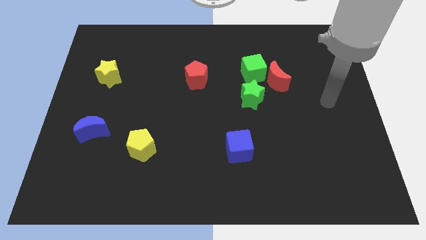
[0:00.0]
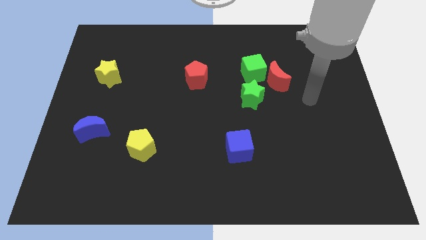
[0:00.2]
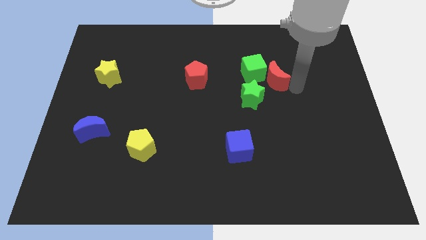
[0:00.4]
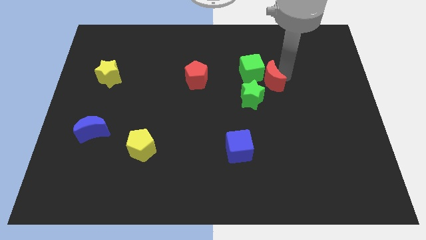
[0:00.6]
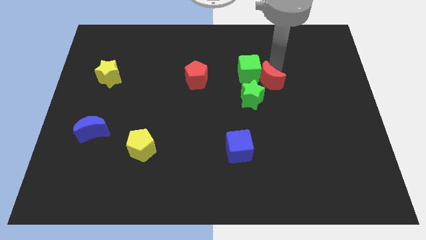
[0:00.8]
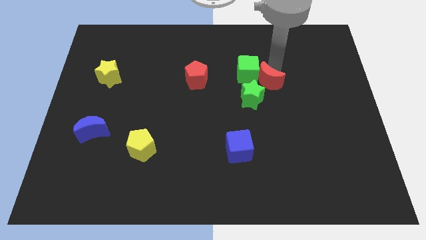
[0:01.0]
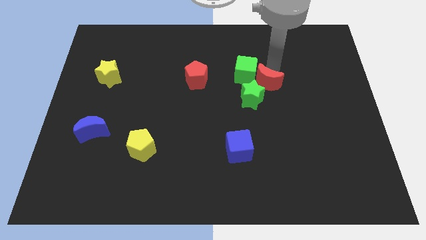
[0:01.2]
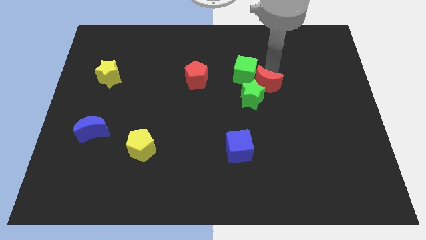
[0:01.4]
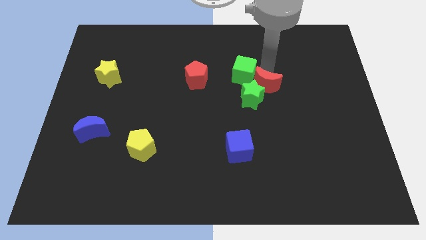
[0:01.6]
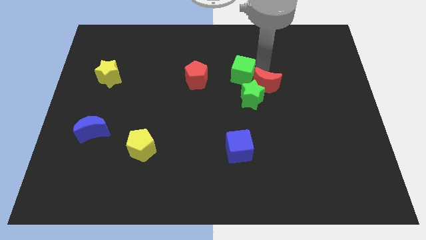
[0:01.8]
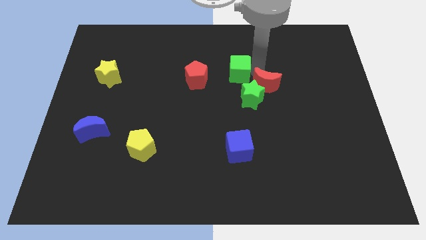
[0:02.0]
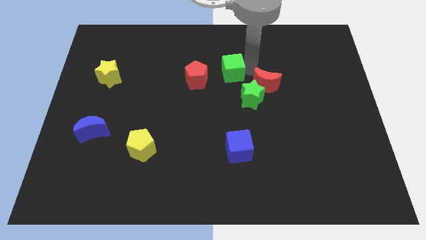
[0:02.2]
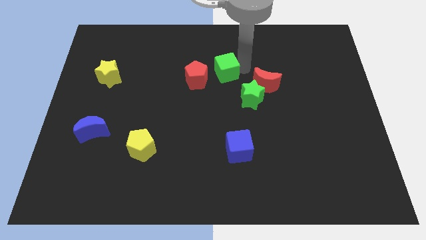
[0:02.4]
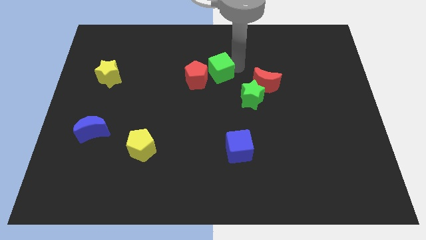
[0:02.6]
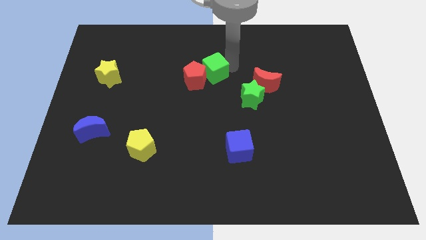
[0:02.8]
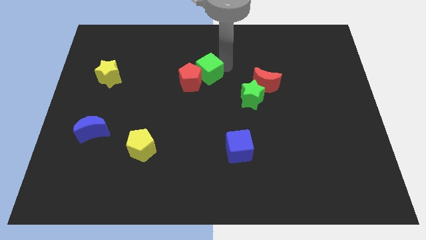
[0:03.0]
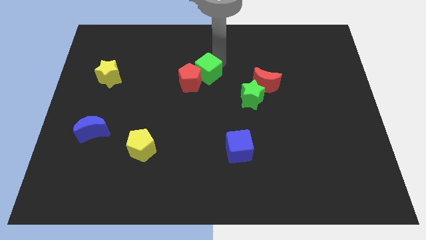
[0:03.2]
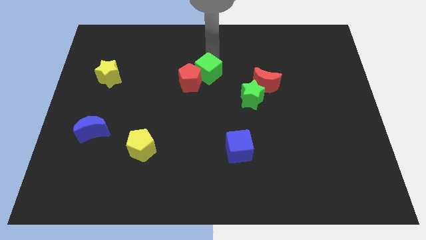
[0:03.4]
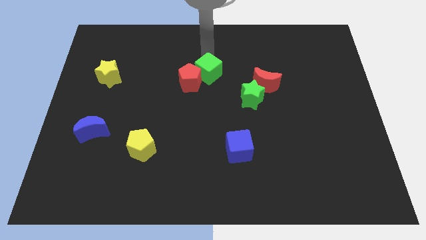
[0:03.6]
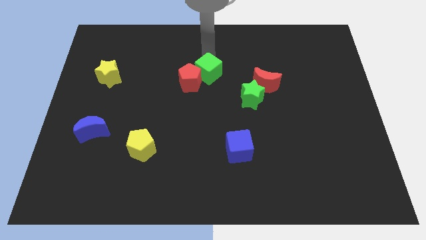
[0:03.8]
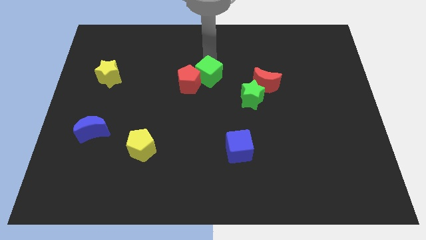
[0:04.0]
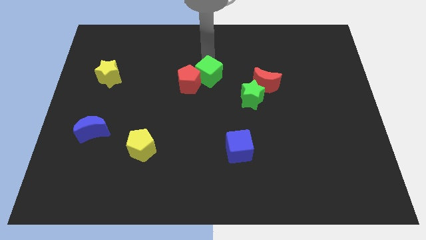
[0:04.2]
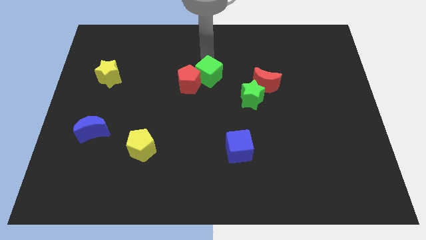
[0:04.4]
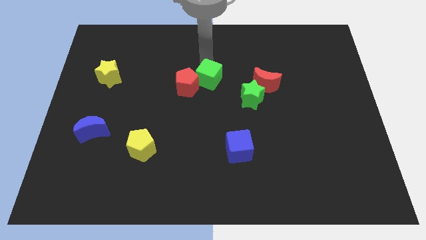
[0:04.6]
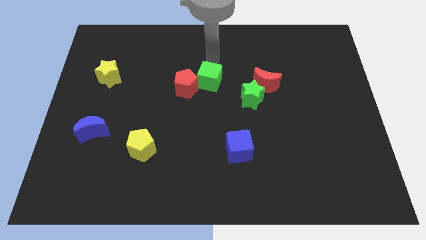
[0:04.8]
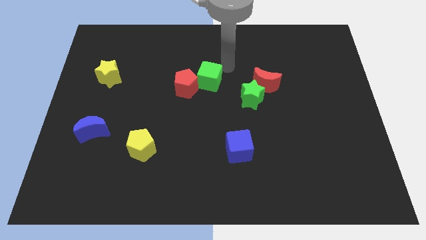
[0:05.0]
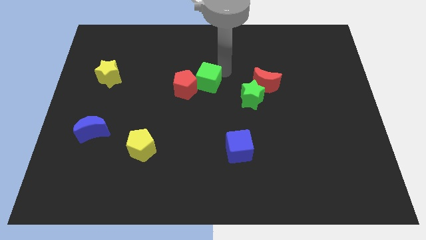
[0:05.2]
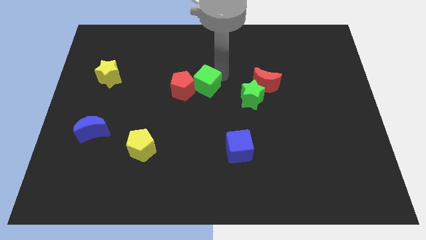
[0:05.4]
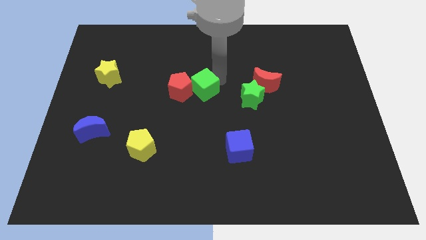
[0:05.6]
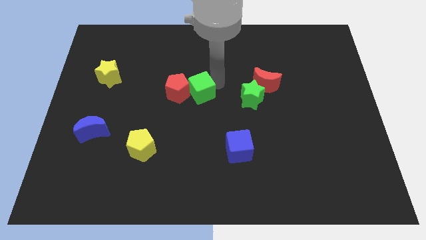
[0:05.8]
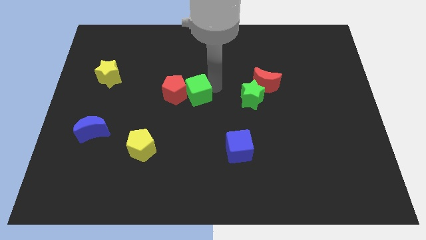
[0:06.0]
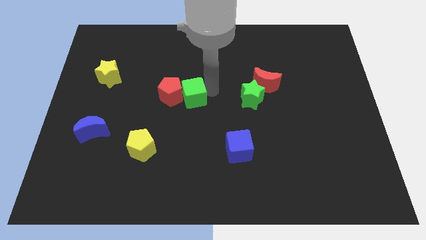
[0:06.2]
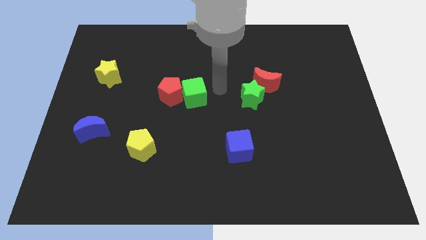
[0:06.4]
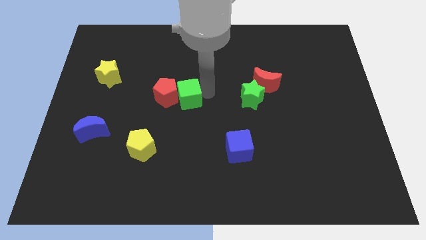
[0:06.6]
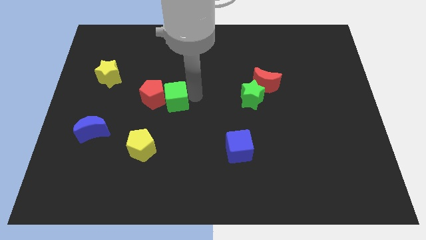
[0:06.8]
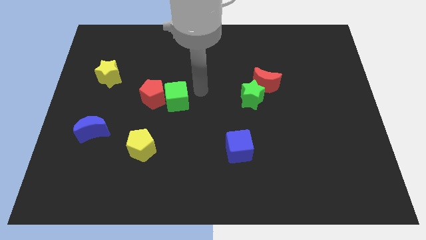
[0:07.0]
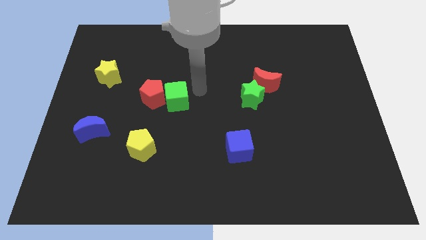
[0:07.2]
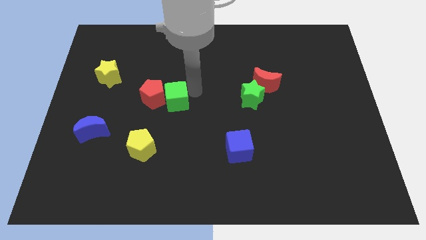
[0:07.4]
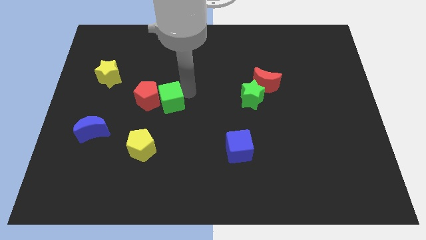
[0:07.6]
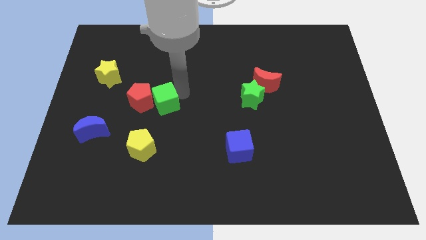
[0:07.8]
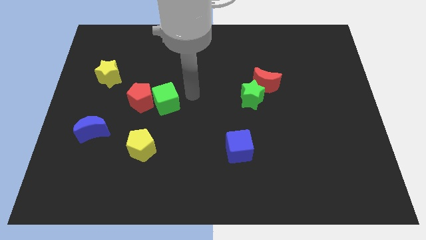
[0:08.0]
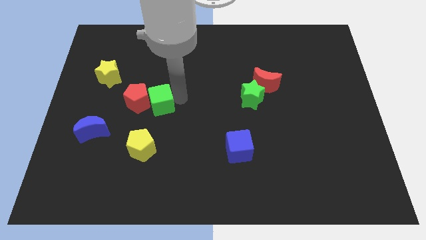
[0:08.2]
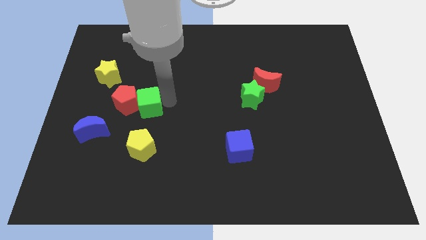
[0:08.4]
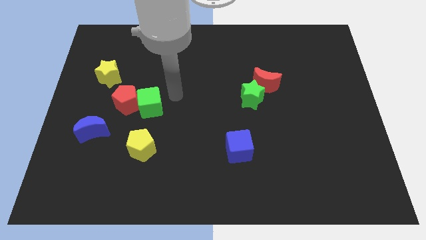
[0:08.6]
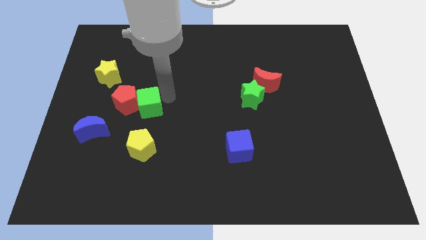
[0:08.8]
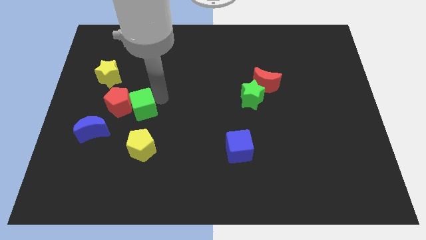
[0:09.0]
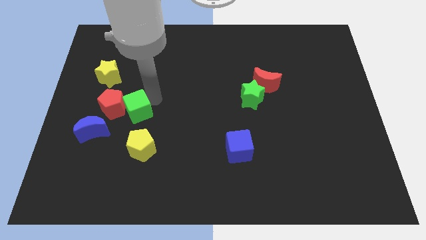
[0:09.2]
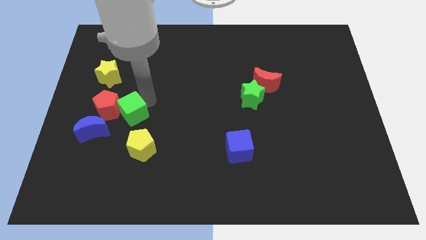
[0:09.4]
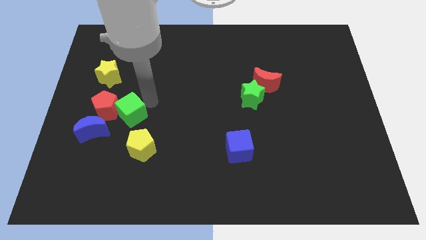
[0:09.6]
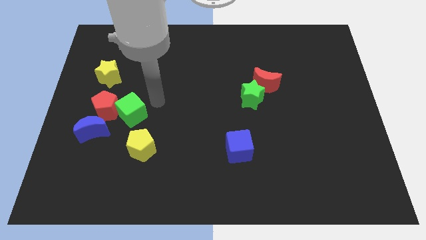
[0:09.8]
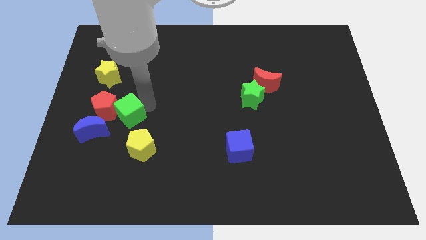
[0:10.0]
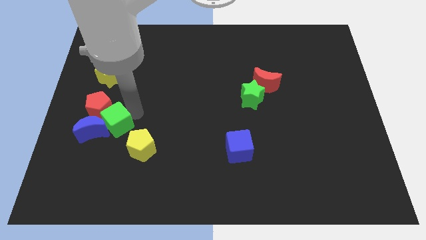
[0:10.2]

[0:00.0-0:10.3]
push the green cube close to the blue moon

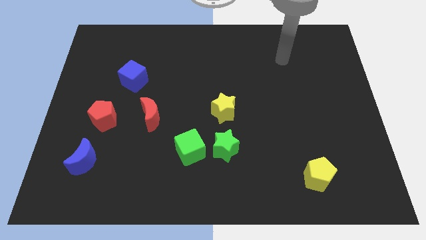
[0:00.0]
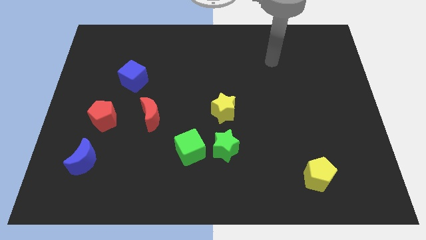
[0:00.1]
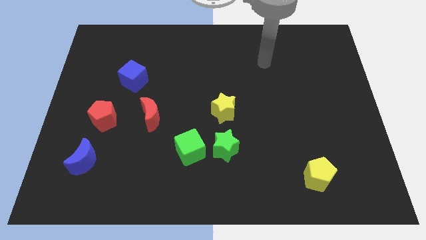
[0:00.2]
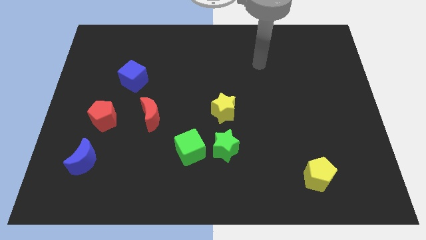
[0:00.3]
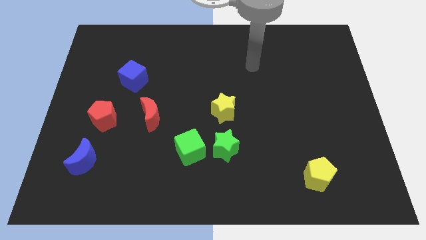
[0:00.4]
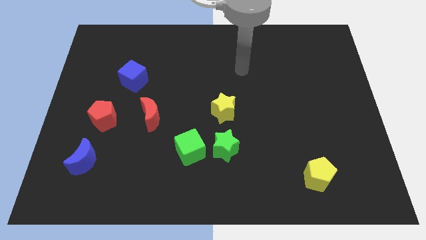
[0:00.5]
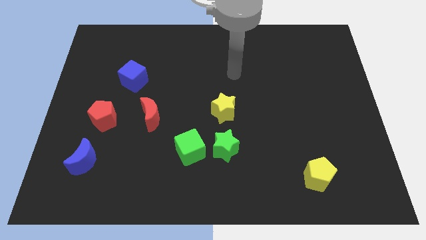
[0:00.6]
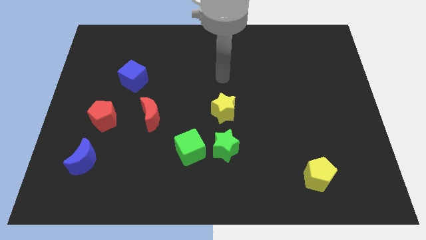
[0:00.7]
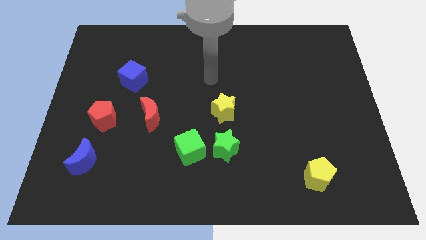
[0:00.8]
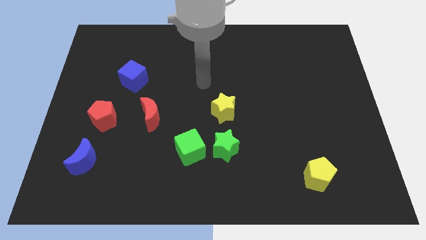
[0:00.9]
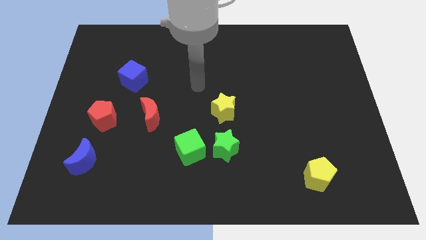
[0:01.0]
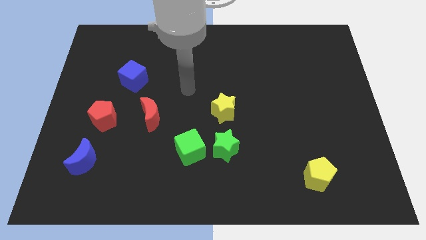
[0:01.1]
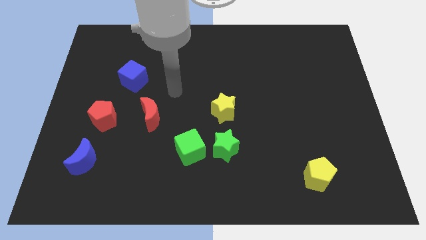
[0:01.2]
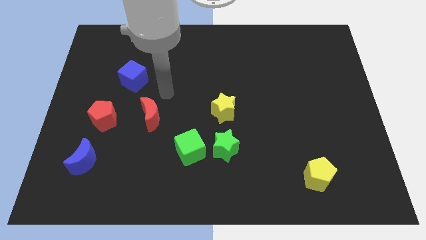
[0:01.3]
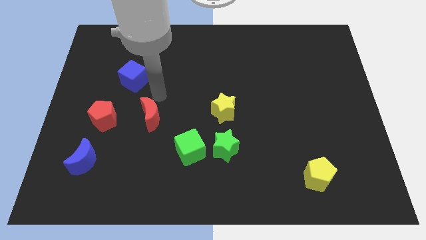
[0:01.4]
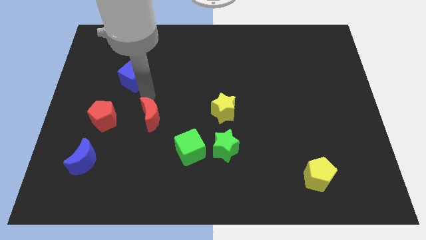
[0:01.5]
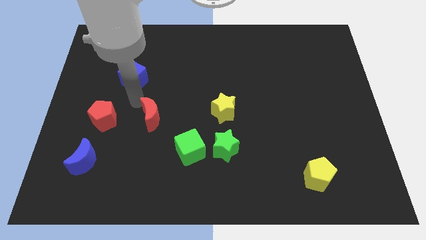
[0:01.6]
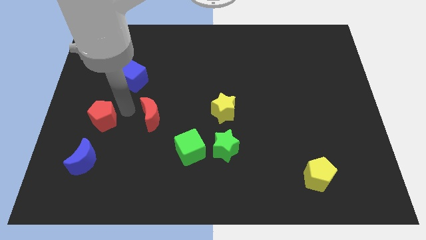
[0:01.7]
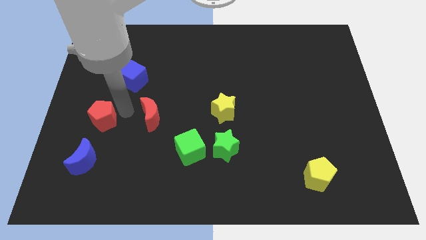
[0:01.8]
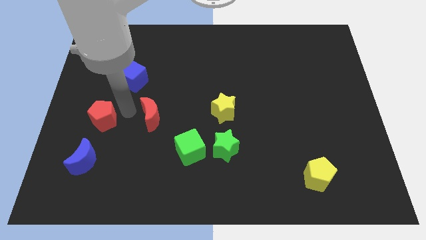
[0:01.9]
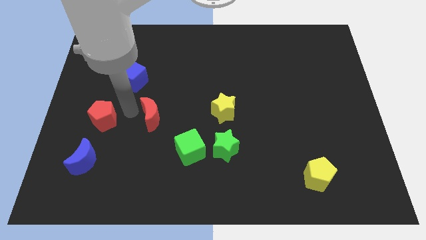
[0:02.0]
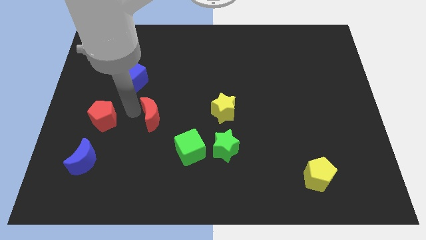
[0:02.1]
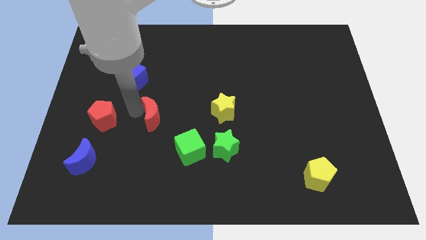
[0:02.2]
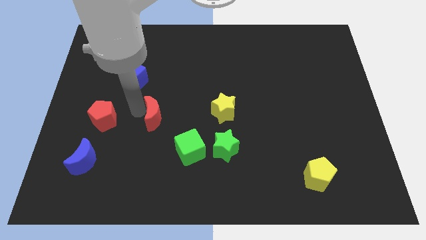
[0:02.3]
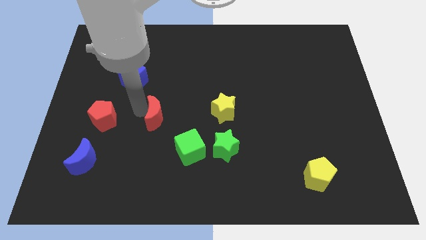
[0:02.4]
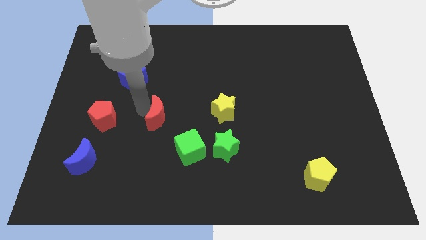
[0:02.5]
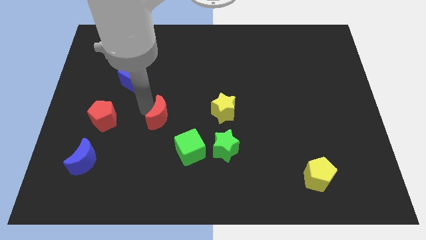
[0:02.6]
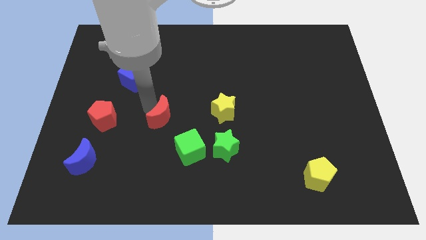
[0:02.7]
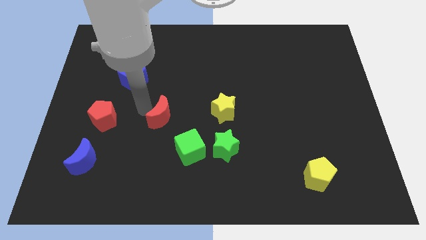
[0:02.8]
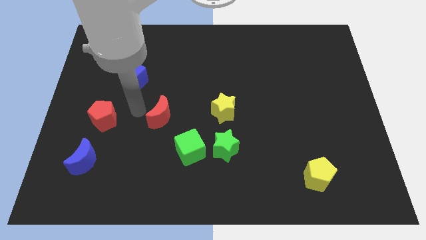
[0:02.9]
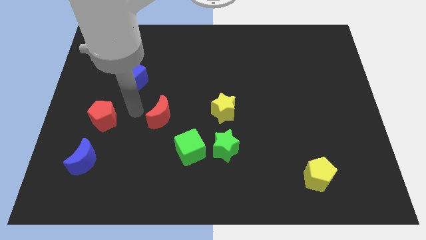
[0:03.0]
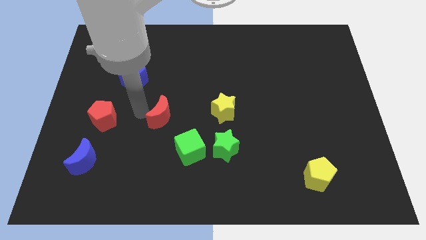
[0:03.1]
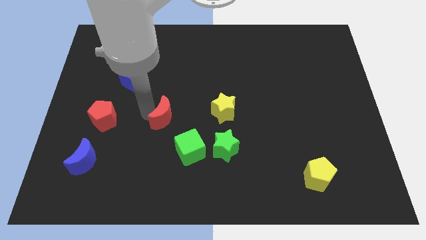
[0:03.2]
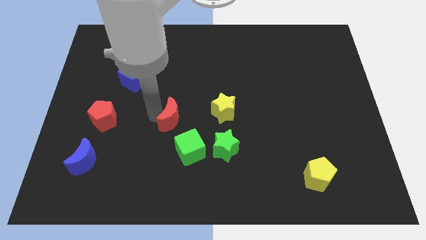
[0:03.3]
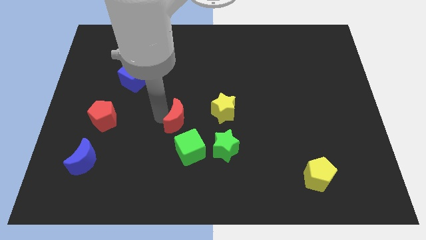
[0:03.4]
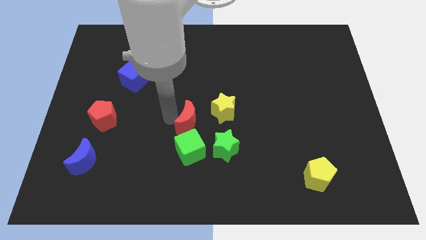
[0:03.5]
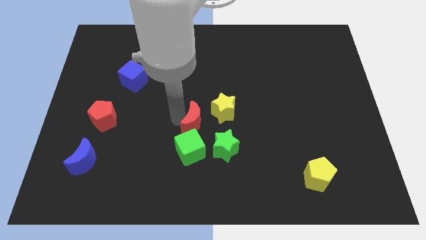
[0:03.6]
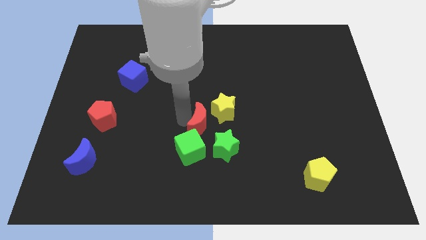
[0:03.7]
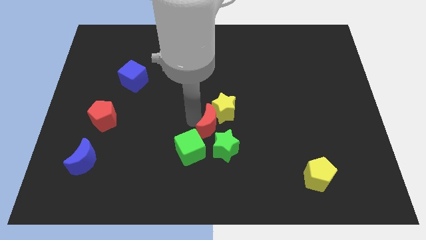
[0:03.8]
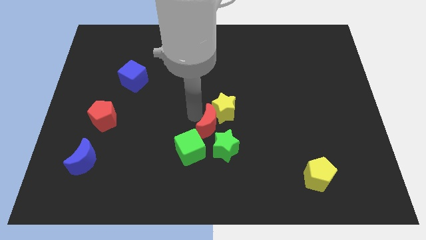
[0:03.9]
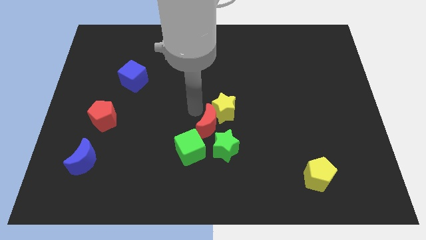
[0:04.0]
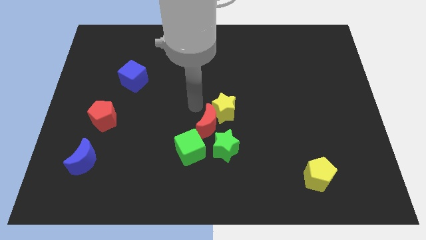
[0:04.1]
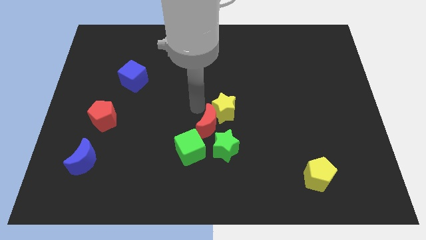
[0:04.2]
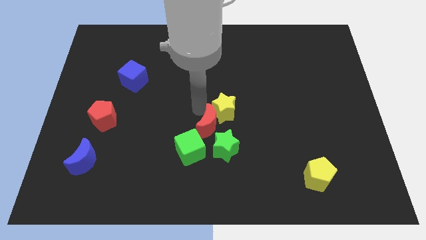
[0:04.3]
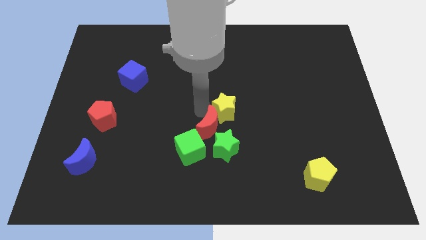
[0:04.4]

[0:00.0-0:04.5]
put the red moon next to the green star
